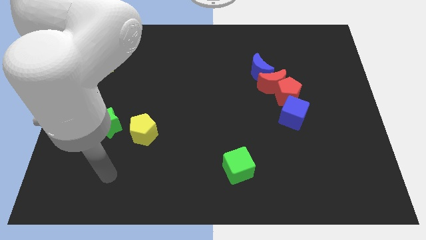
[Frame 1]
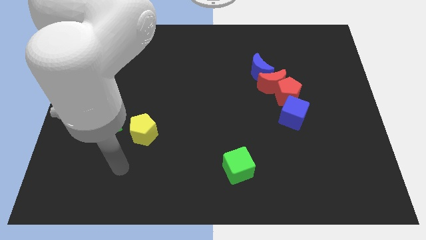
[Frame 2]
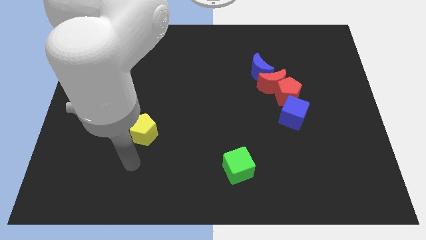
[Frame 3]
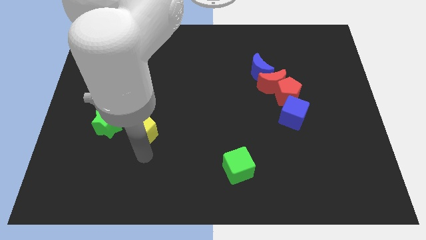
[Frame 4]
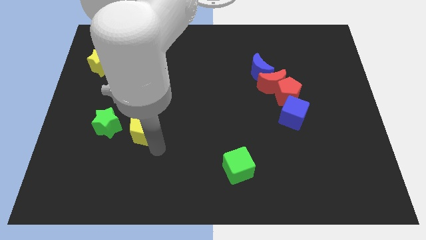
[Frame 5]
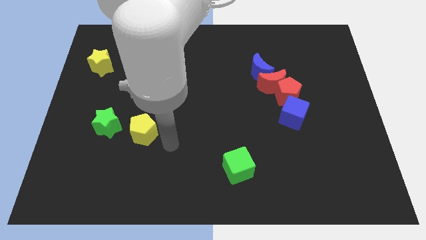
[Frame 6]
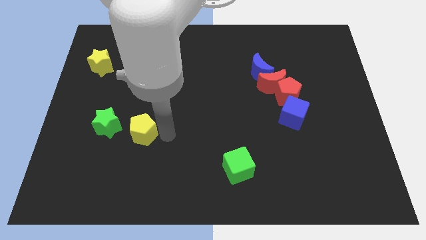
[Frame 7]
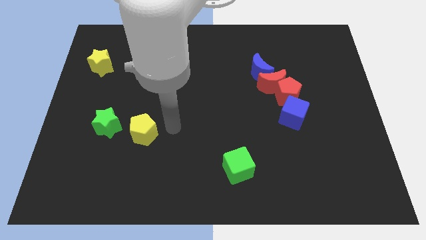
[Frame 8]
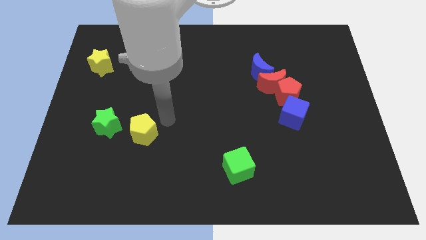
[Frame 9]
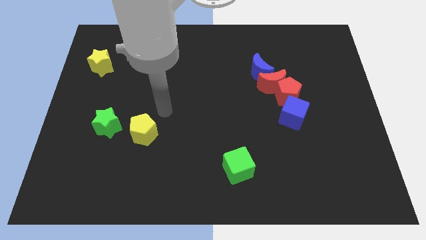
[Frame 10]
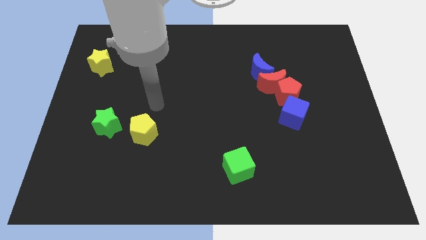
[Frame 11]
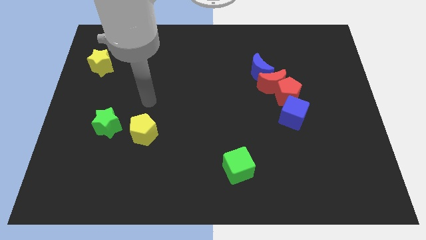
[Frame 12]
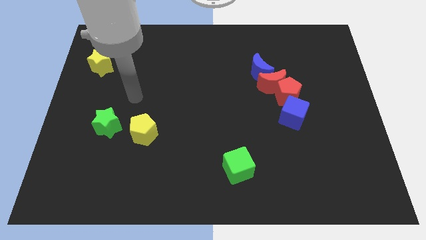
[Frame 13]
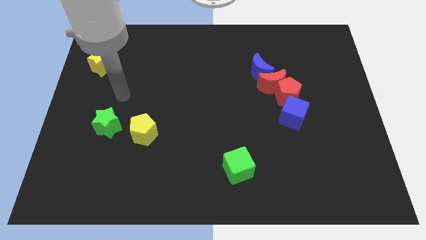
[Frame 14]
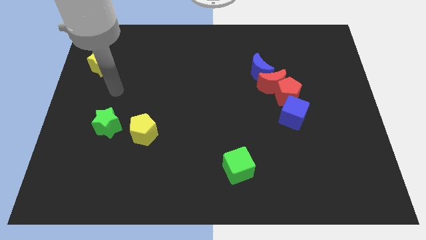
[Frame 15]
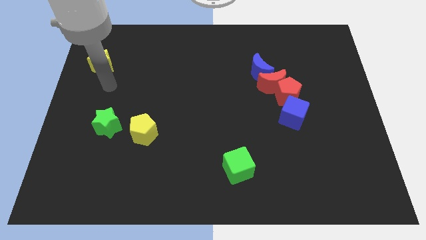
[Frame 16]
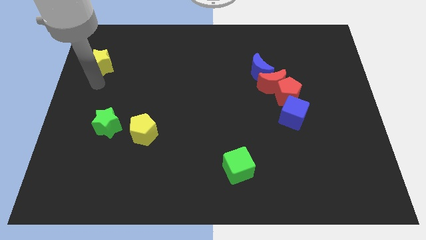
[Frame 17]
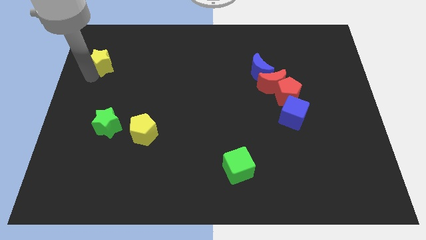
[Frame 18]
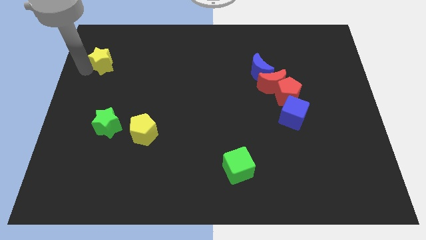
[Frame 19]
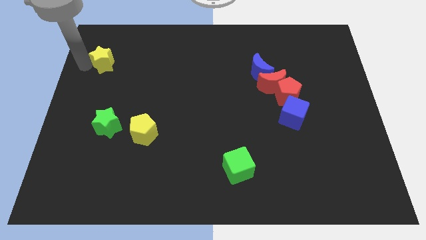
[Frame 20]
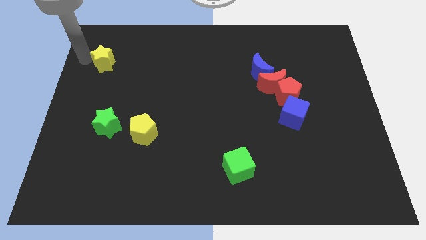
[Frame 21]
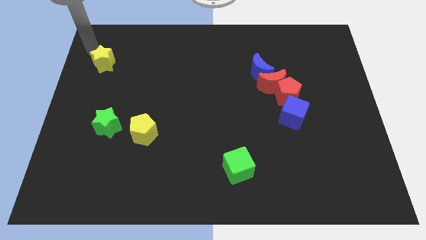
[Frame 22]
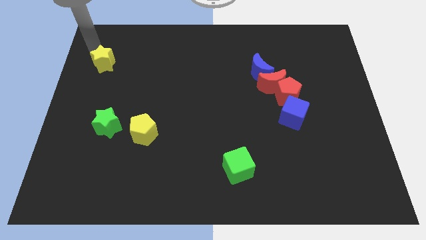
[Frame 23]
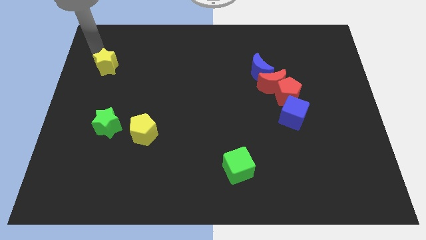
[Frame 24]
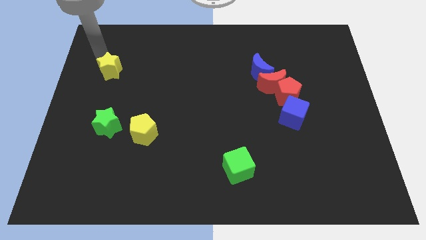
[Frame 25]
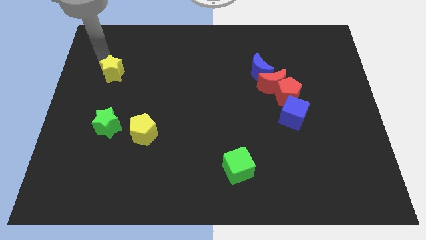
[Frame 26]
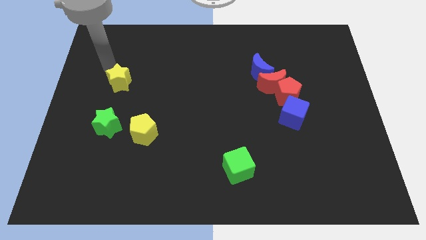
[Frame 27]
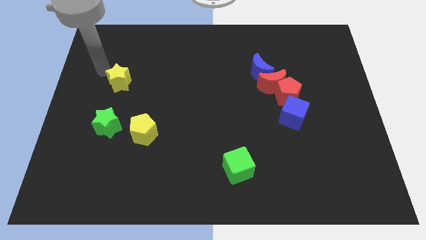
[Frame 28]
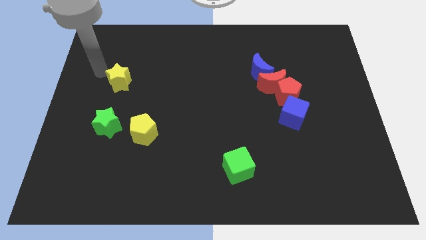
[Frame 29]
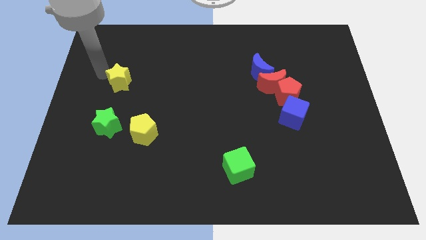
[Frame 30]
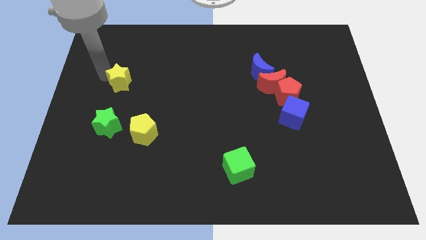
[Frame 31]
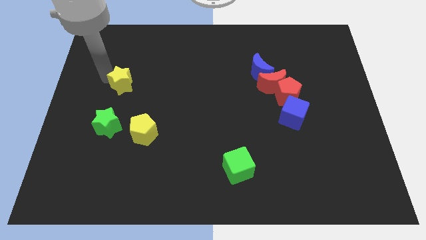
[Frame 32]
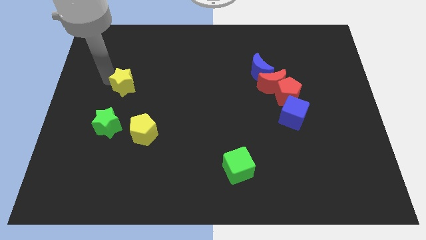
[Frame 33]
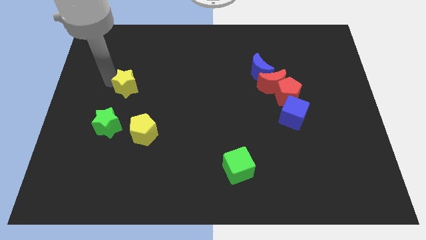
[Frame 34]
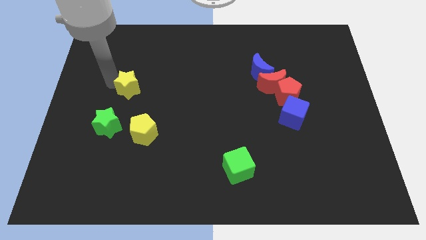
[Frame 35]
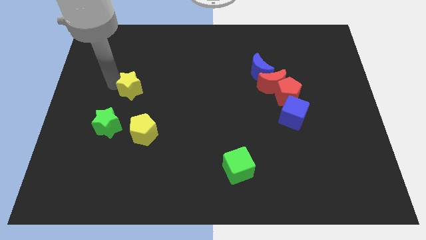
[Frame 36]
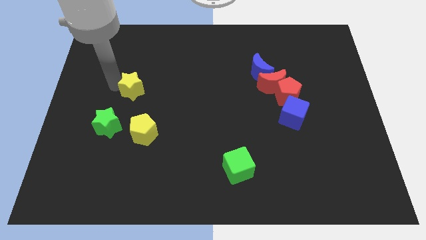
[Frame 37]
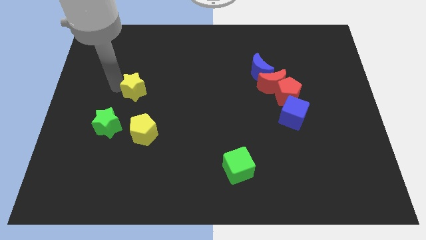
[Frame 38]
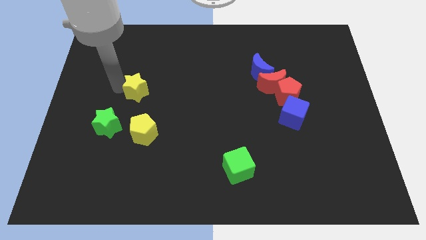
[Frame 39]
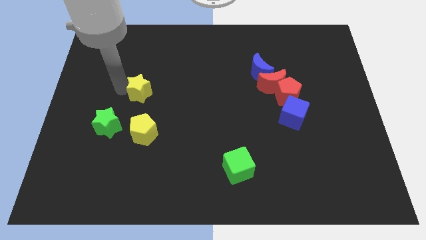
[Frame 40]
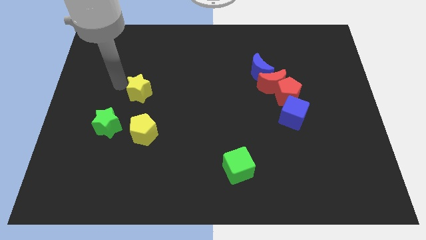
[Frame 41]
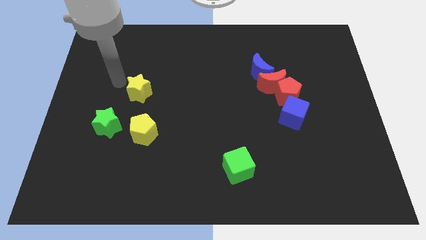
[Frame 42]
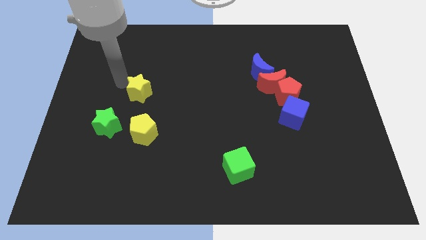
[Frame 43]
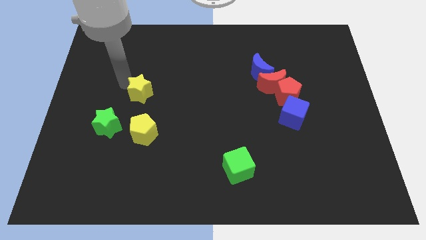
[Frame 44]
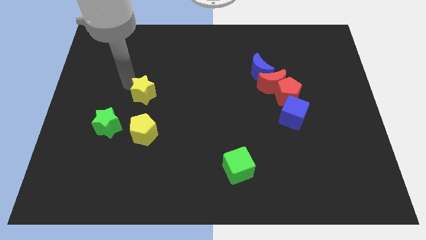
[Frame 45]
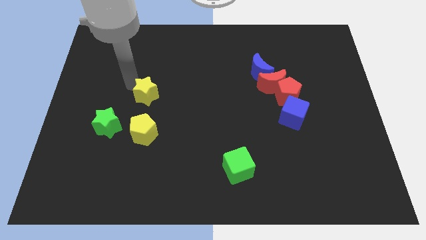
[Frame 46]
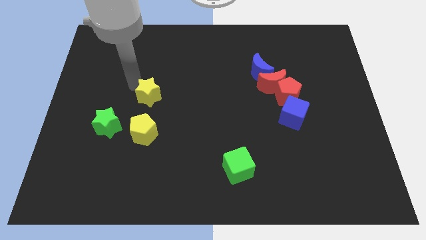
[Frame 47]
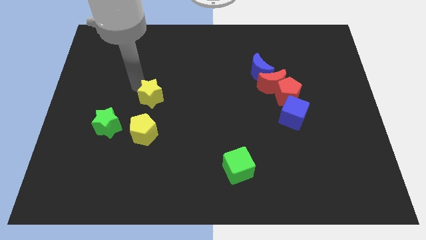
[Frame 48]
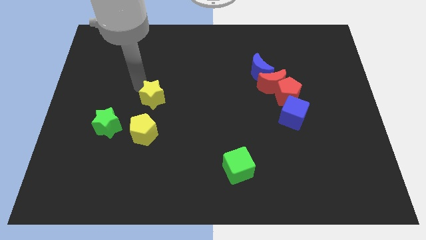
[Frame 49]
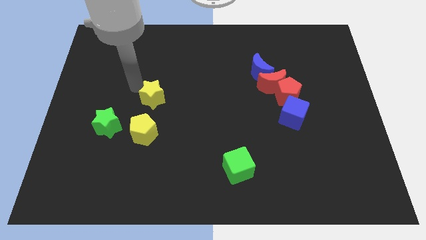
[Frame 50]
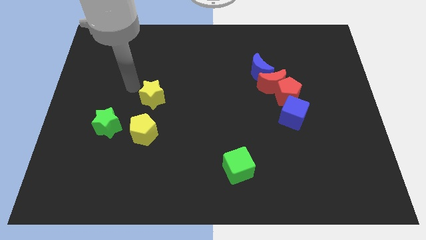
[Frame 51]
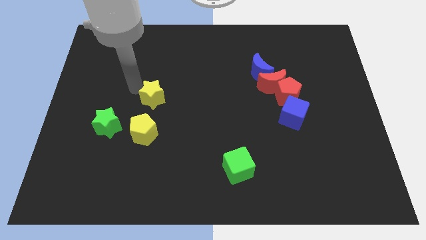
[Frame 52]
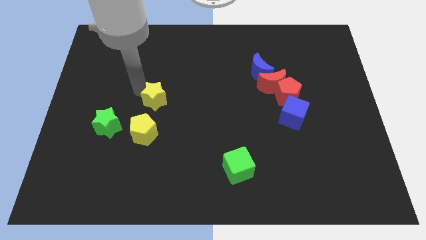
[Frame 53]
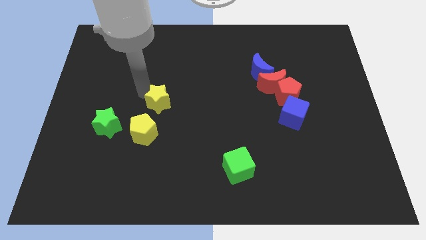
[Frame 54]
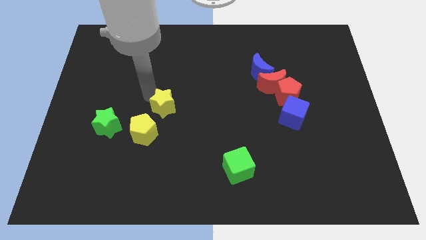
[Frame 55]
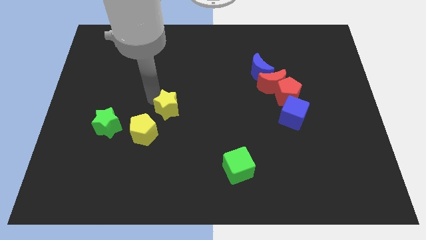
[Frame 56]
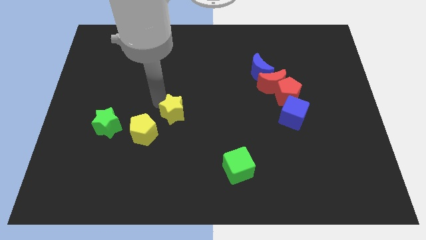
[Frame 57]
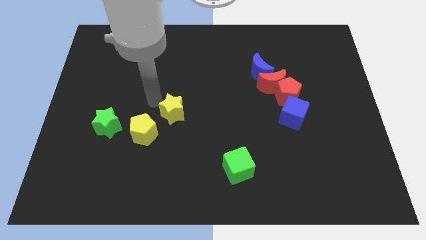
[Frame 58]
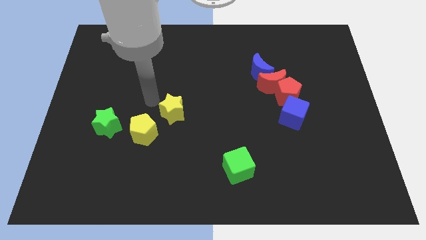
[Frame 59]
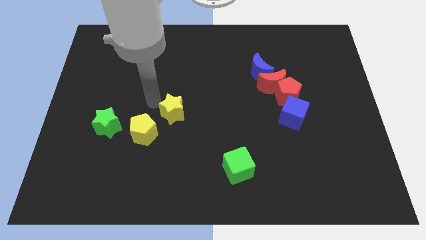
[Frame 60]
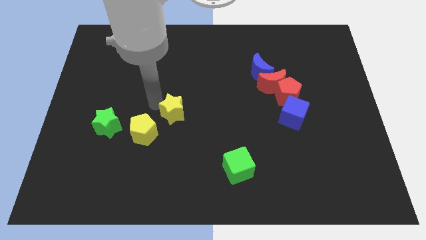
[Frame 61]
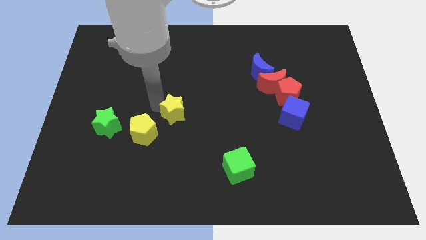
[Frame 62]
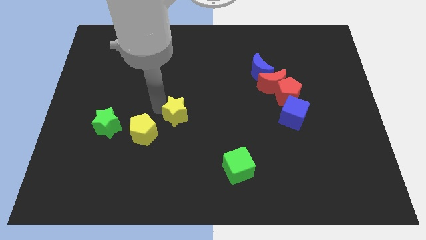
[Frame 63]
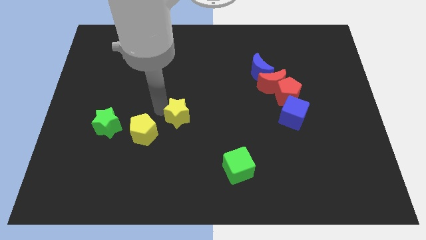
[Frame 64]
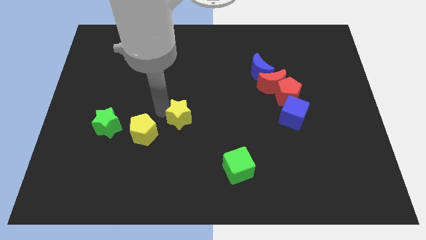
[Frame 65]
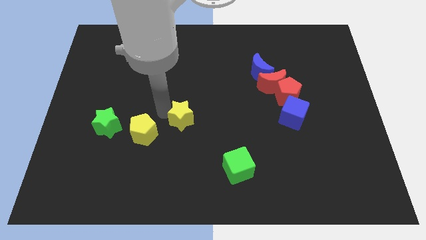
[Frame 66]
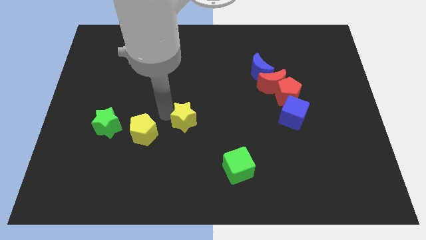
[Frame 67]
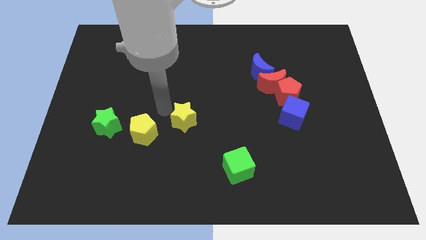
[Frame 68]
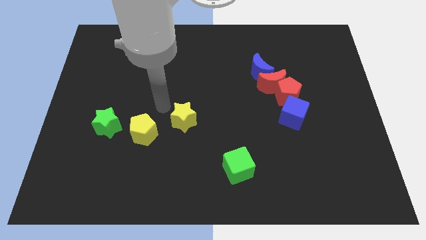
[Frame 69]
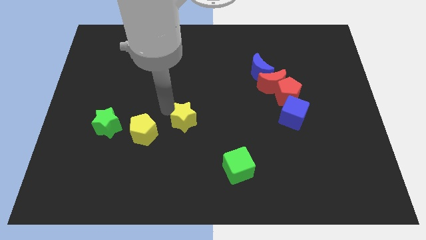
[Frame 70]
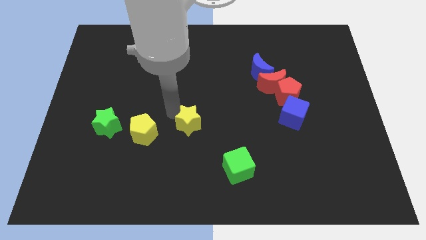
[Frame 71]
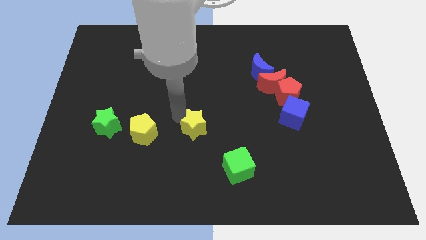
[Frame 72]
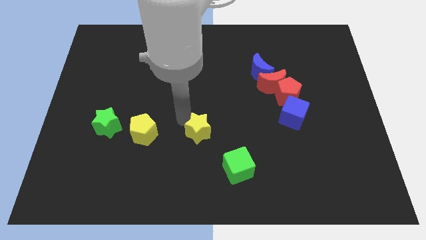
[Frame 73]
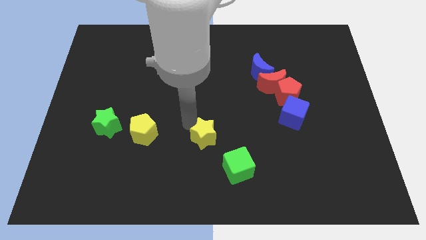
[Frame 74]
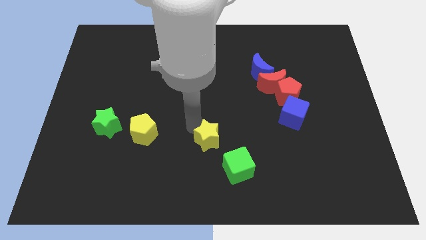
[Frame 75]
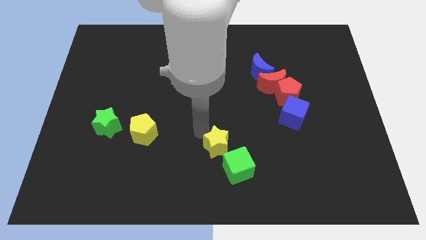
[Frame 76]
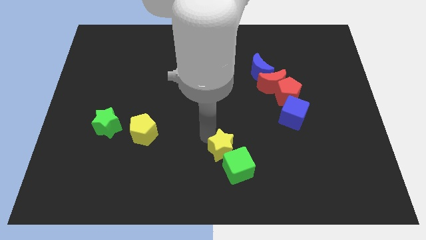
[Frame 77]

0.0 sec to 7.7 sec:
push the yellow star to the green cube

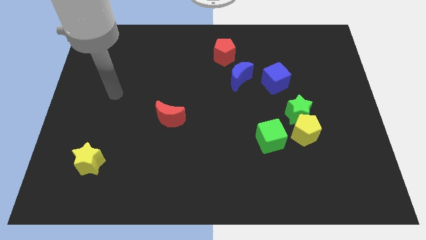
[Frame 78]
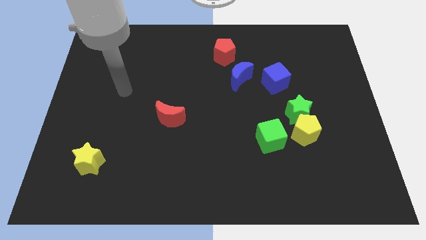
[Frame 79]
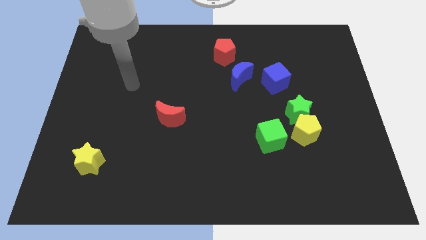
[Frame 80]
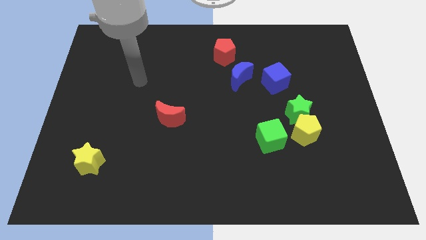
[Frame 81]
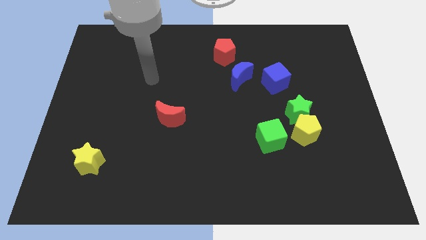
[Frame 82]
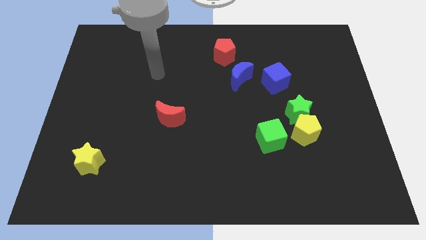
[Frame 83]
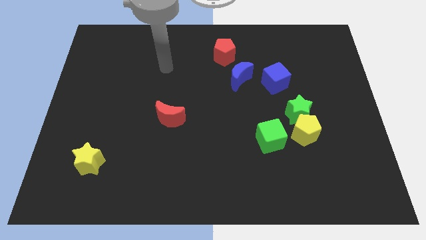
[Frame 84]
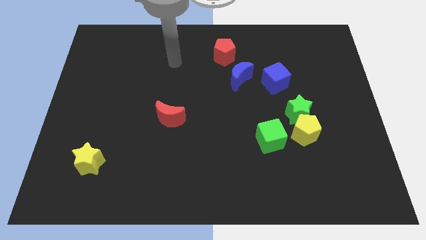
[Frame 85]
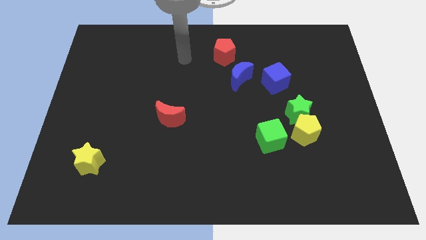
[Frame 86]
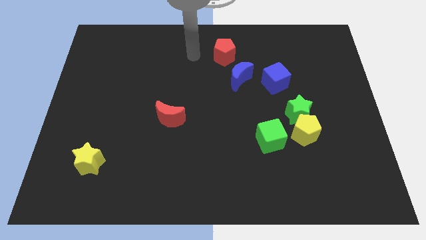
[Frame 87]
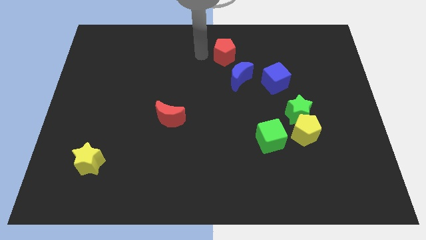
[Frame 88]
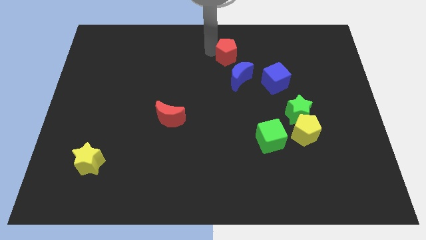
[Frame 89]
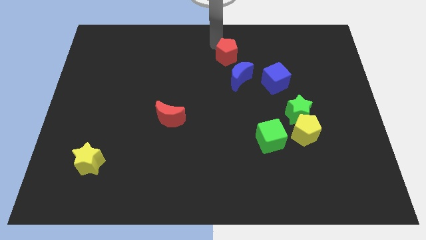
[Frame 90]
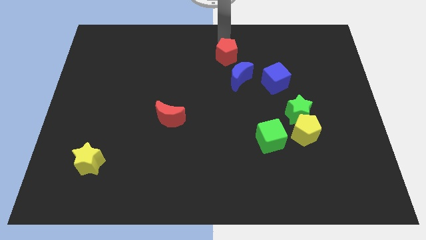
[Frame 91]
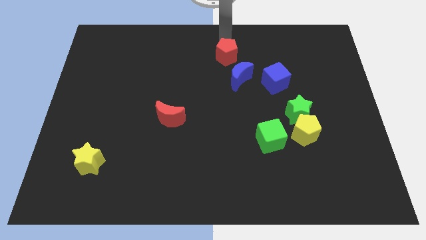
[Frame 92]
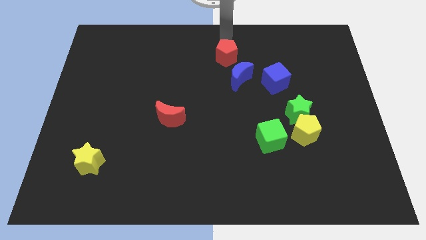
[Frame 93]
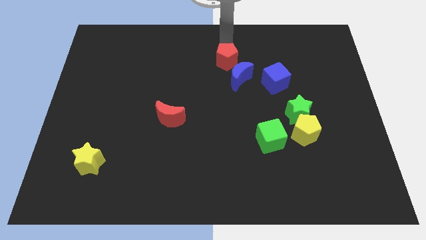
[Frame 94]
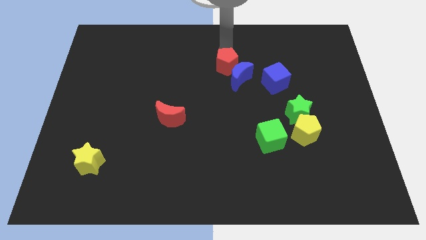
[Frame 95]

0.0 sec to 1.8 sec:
move the red pentagon next to the blue moon
